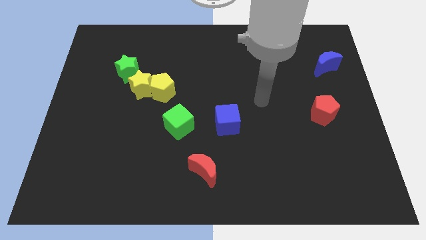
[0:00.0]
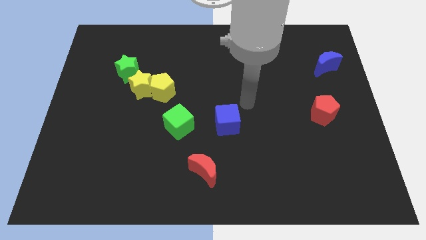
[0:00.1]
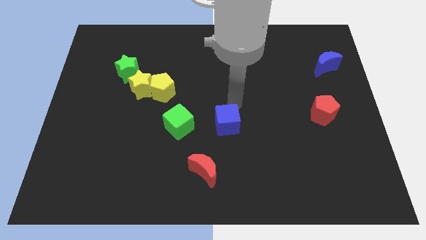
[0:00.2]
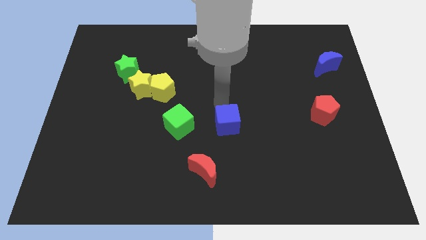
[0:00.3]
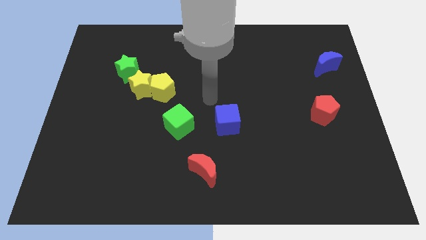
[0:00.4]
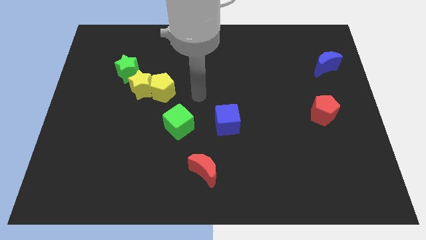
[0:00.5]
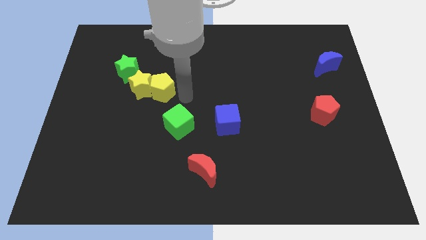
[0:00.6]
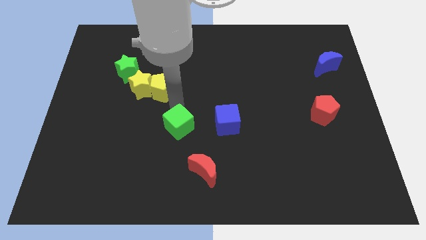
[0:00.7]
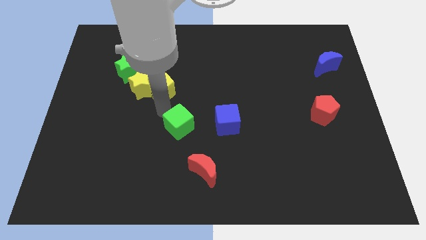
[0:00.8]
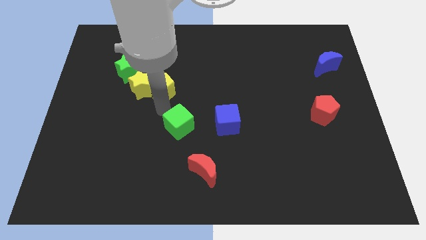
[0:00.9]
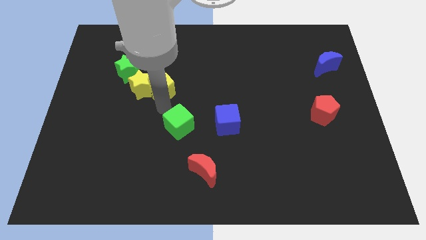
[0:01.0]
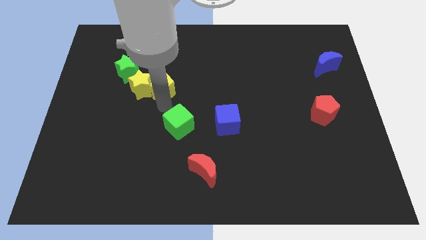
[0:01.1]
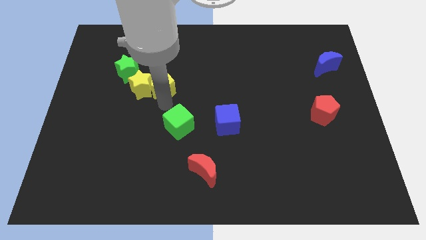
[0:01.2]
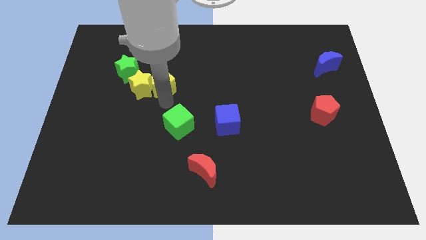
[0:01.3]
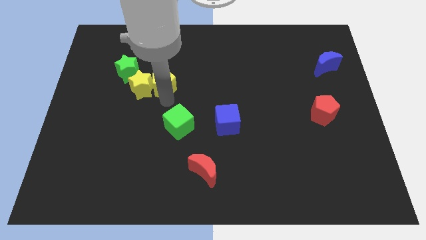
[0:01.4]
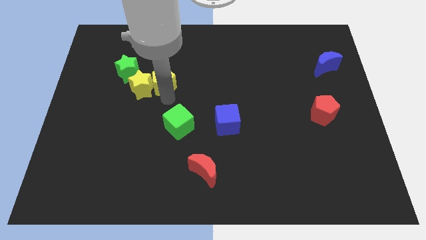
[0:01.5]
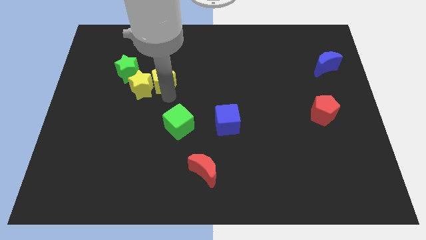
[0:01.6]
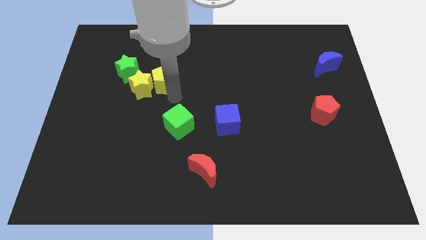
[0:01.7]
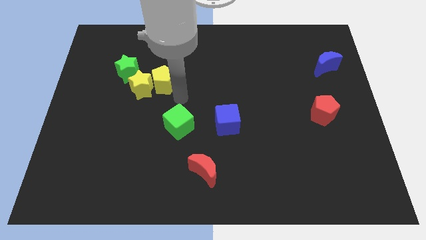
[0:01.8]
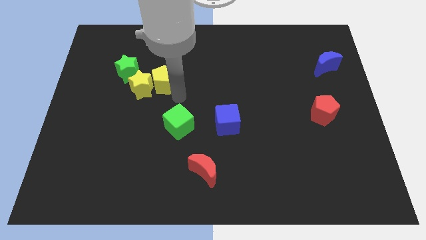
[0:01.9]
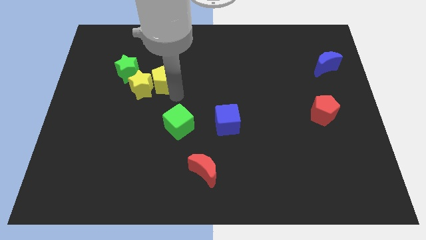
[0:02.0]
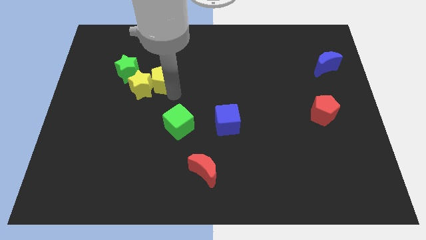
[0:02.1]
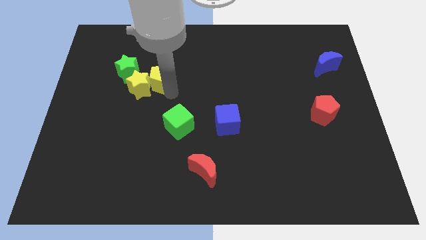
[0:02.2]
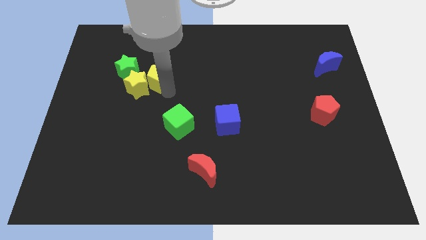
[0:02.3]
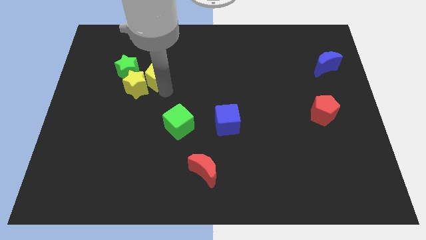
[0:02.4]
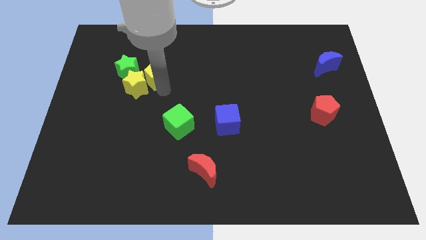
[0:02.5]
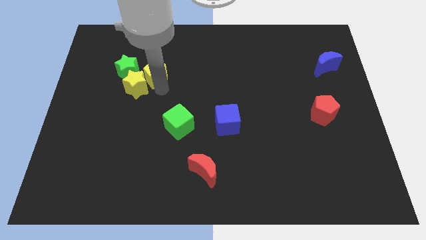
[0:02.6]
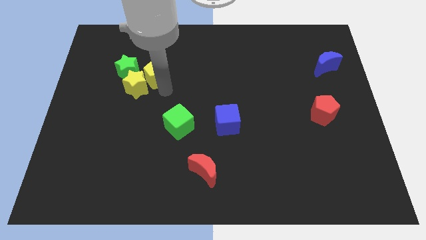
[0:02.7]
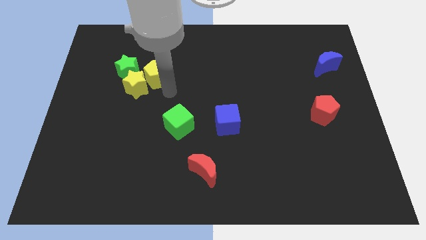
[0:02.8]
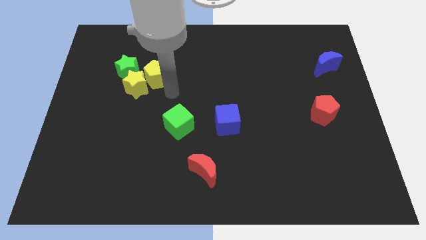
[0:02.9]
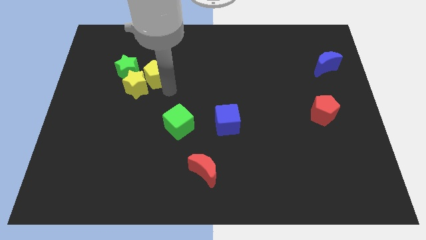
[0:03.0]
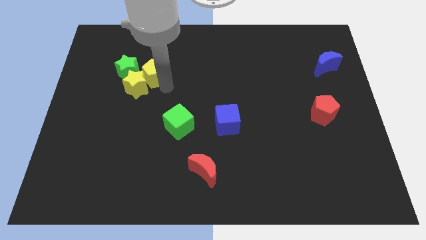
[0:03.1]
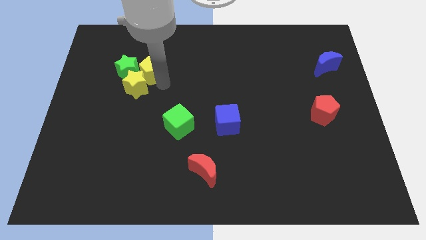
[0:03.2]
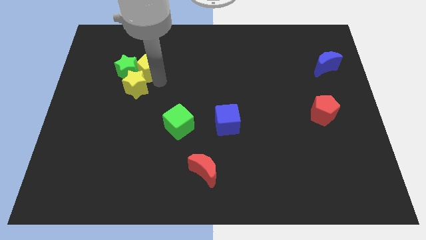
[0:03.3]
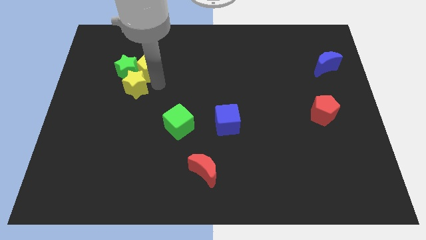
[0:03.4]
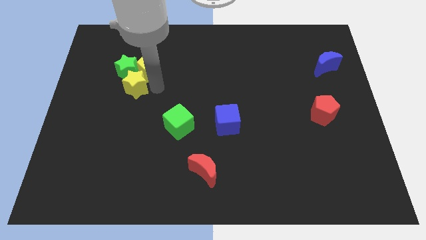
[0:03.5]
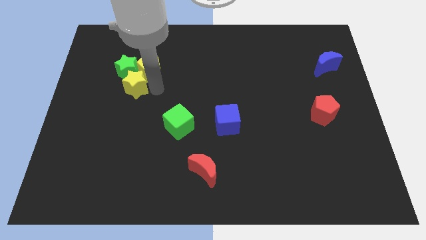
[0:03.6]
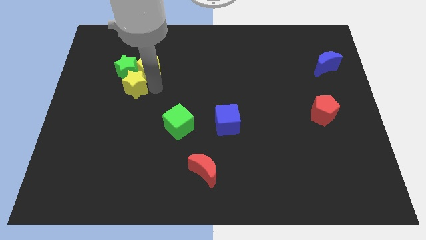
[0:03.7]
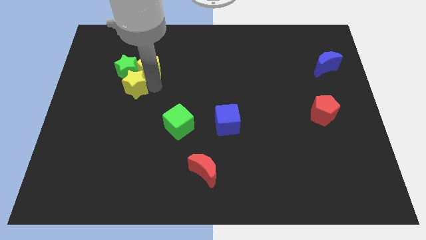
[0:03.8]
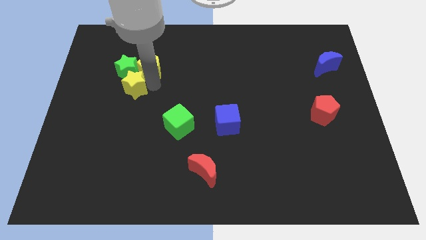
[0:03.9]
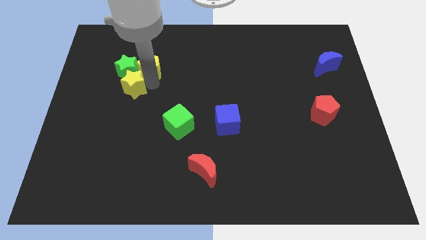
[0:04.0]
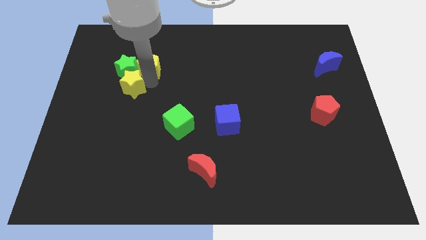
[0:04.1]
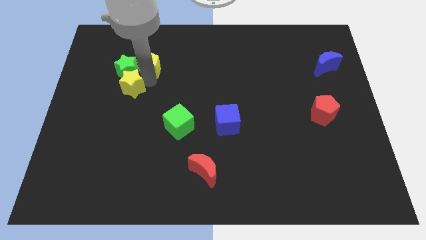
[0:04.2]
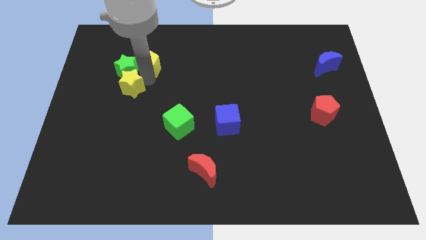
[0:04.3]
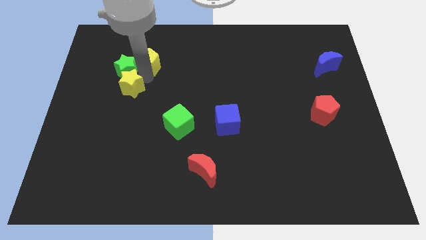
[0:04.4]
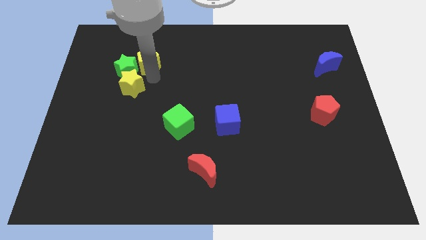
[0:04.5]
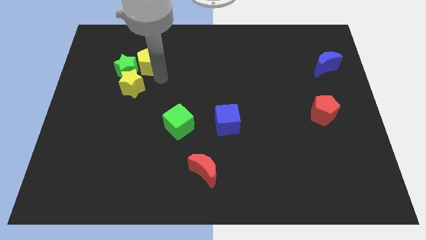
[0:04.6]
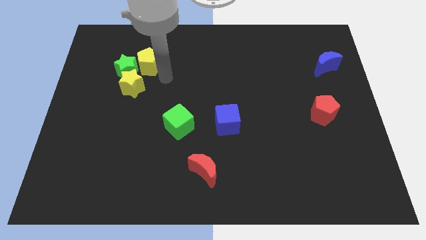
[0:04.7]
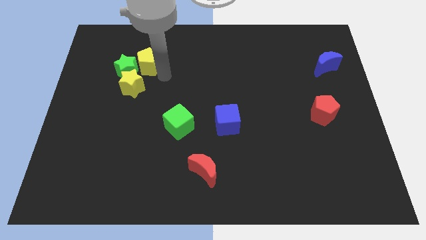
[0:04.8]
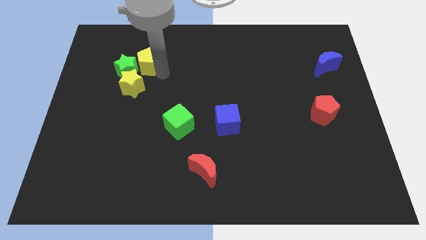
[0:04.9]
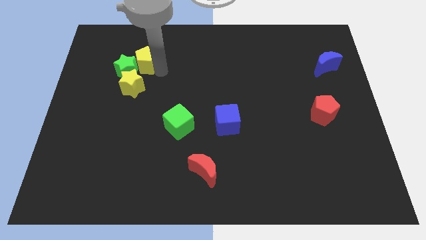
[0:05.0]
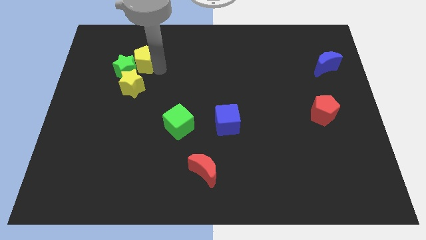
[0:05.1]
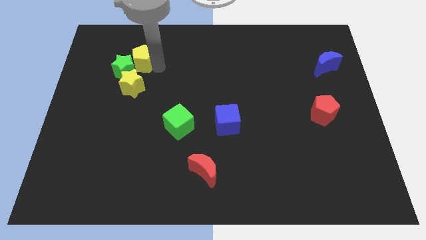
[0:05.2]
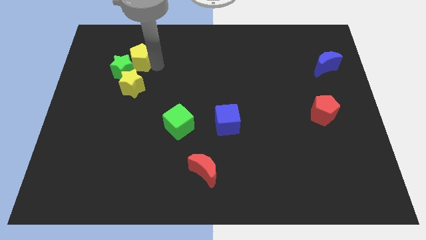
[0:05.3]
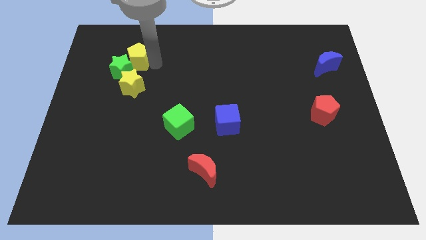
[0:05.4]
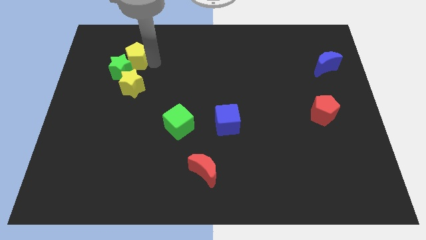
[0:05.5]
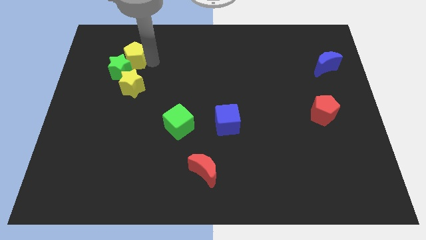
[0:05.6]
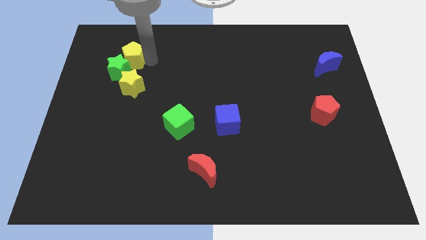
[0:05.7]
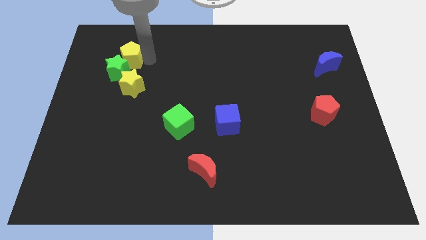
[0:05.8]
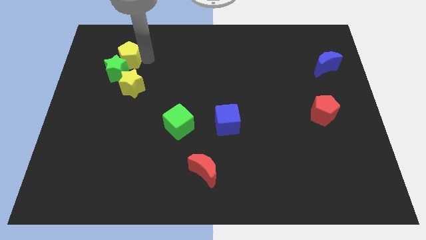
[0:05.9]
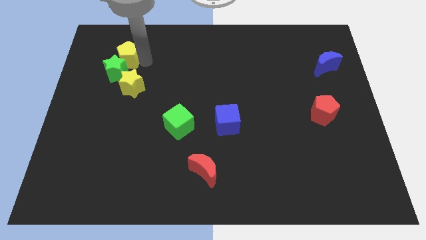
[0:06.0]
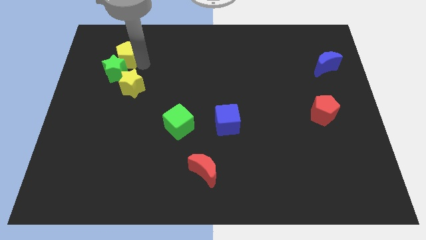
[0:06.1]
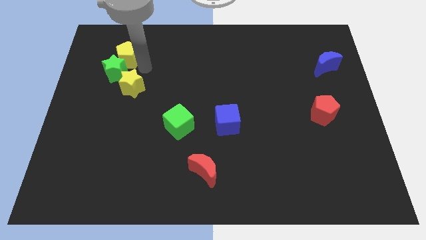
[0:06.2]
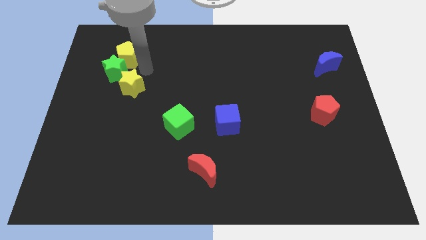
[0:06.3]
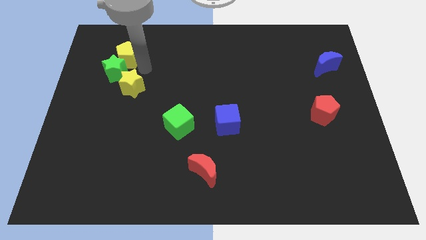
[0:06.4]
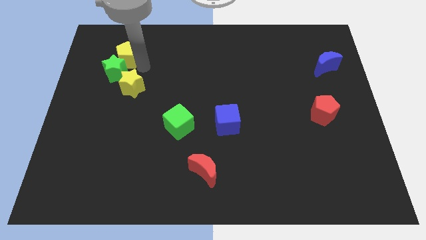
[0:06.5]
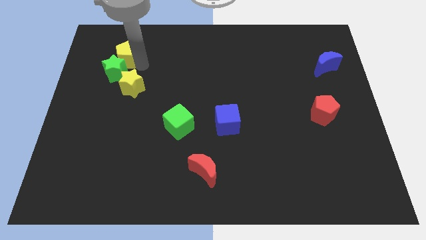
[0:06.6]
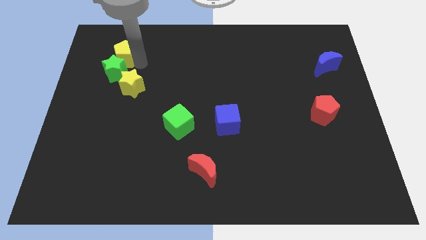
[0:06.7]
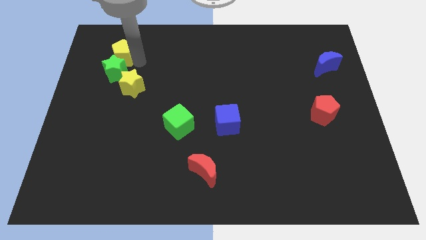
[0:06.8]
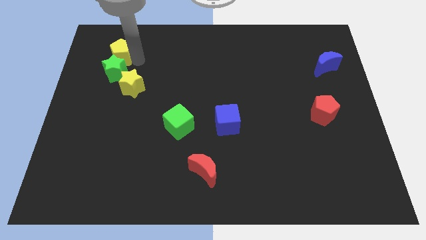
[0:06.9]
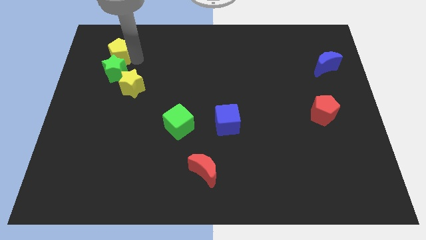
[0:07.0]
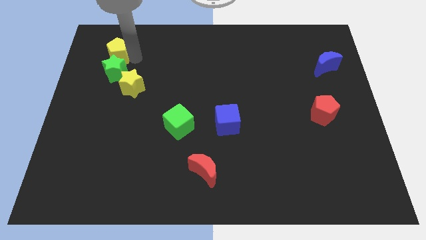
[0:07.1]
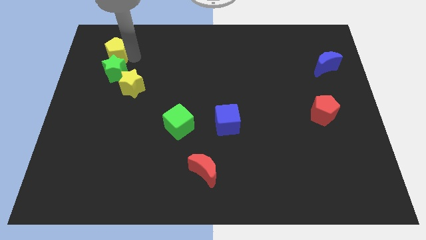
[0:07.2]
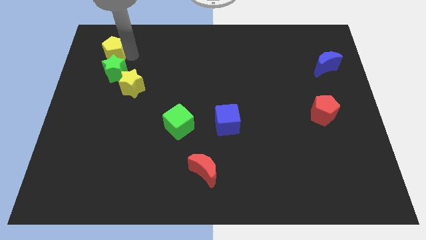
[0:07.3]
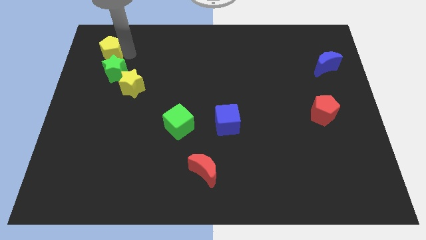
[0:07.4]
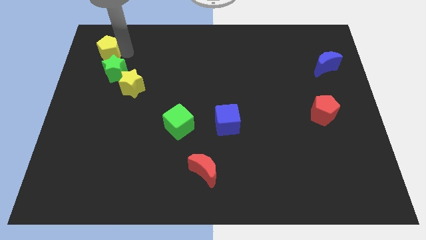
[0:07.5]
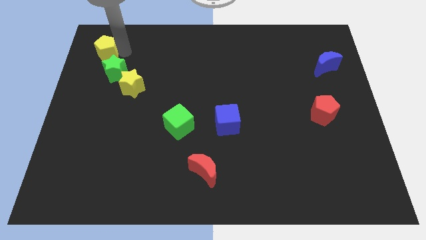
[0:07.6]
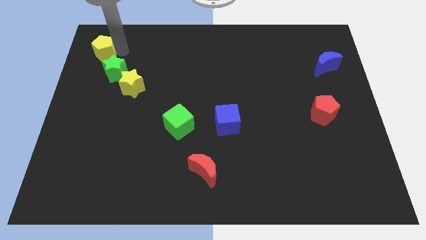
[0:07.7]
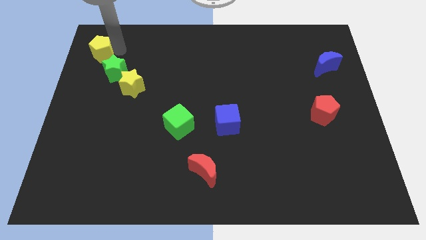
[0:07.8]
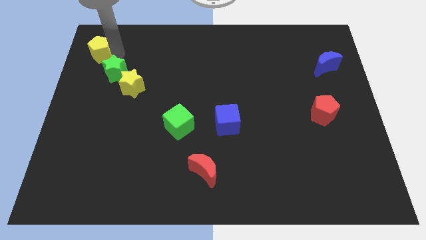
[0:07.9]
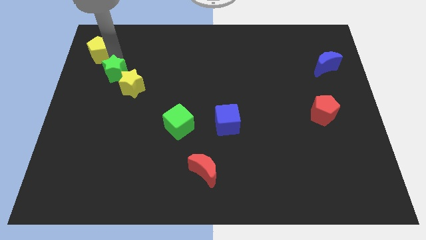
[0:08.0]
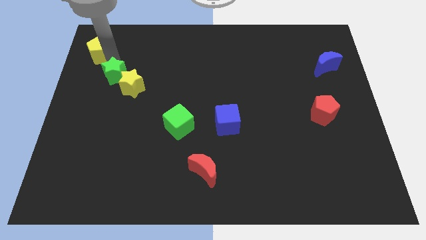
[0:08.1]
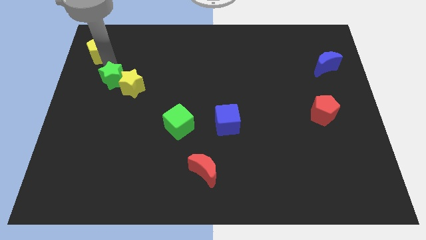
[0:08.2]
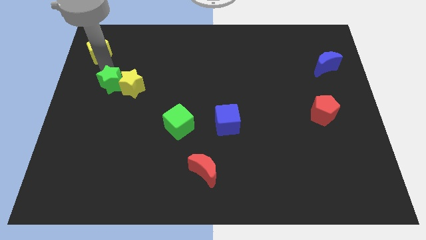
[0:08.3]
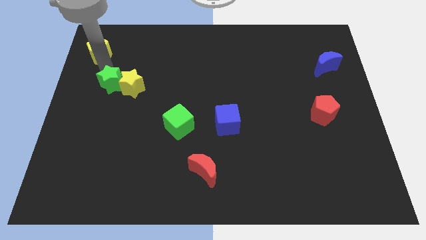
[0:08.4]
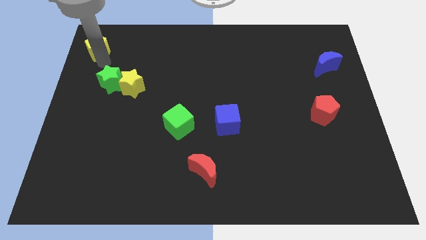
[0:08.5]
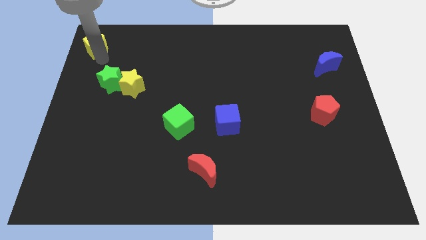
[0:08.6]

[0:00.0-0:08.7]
push the yellow pentagon to the top left
